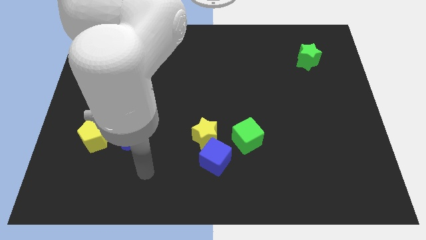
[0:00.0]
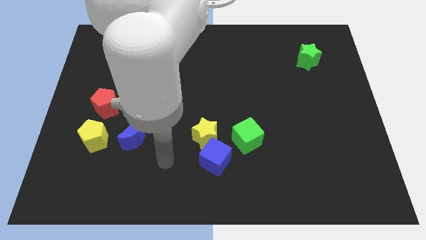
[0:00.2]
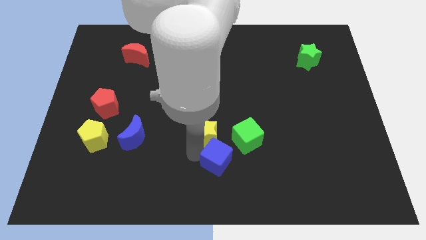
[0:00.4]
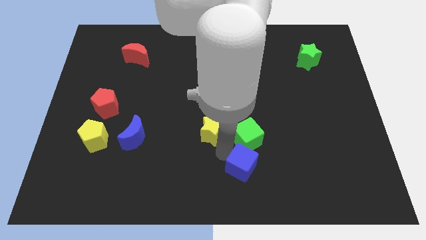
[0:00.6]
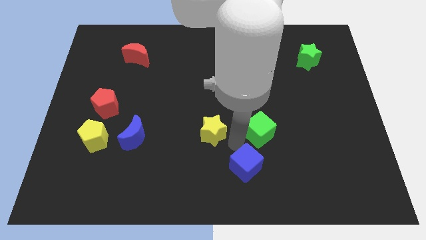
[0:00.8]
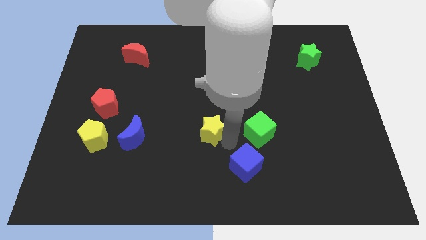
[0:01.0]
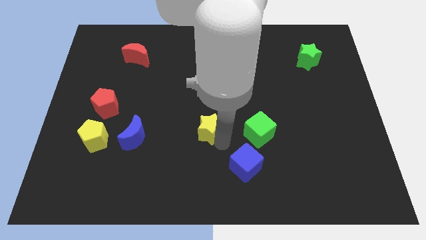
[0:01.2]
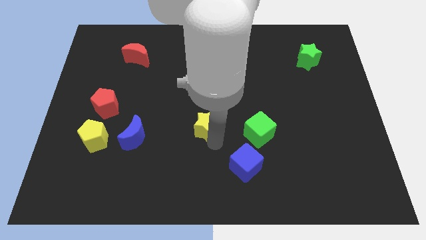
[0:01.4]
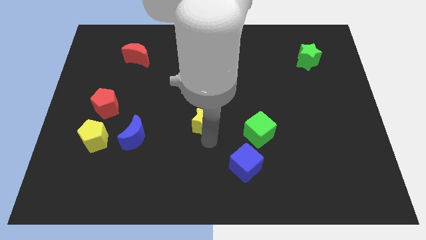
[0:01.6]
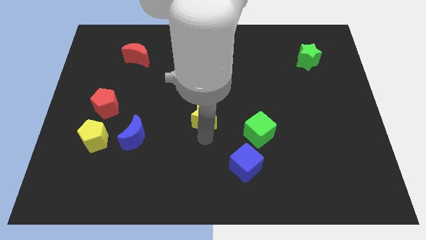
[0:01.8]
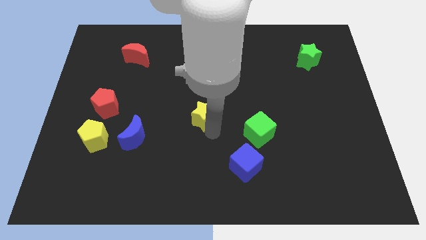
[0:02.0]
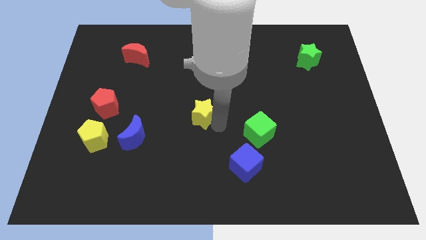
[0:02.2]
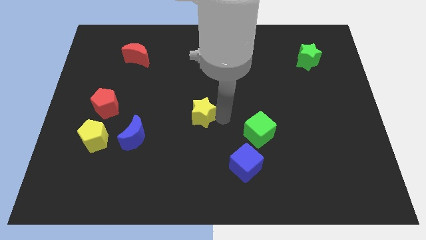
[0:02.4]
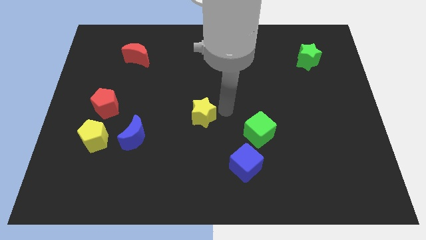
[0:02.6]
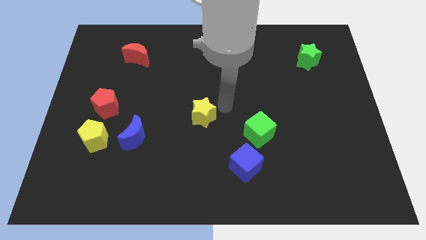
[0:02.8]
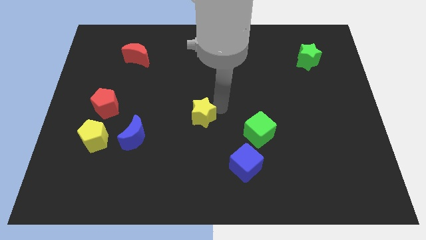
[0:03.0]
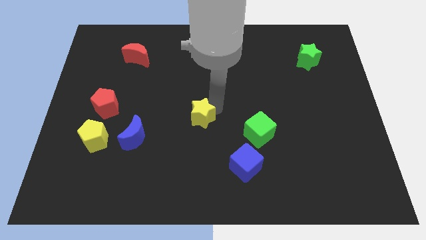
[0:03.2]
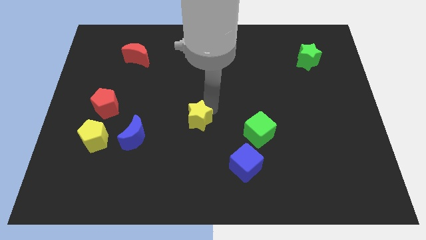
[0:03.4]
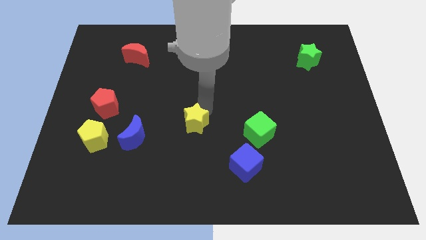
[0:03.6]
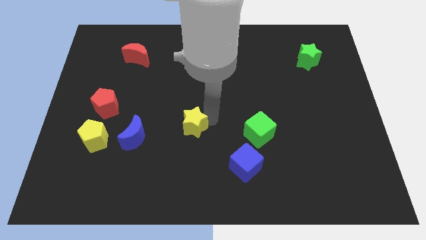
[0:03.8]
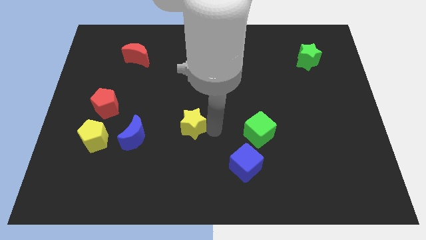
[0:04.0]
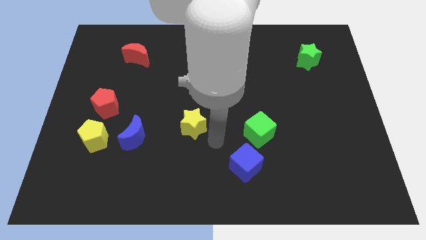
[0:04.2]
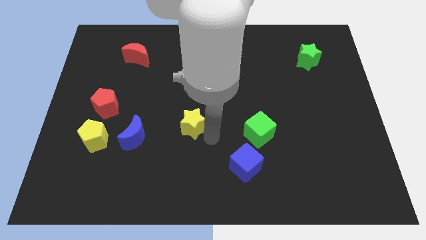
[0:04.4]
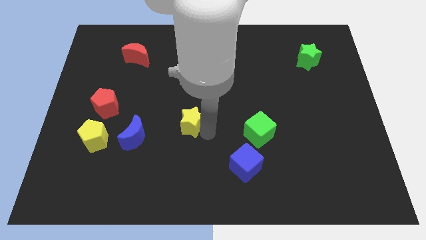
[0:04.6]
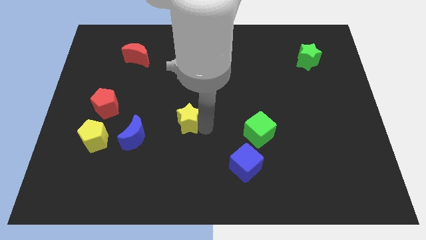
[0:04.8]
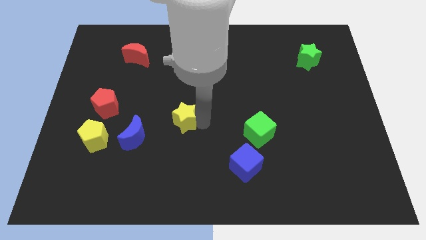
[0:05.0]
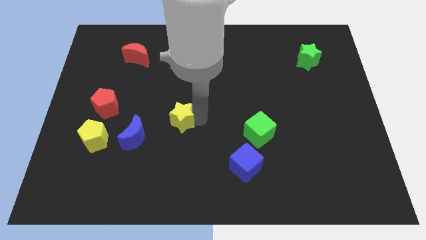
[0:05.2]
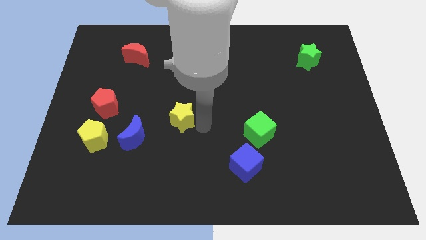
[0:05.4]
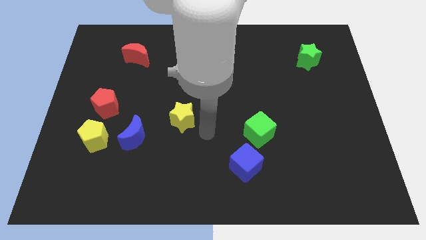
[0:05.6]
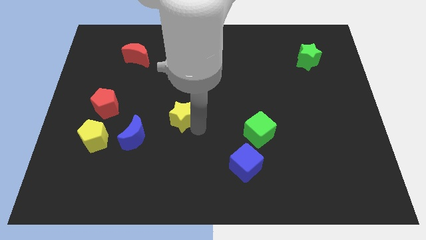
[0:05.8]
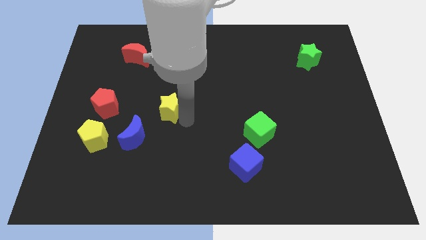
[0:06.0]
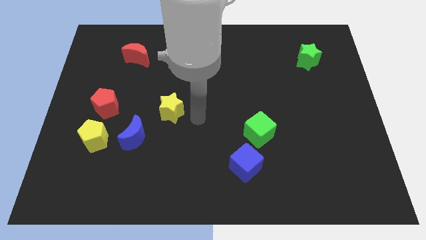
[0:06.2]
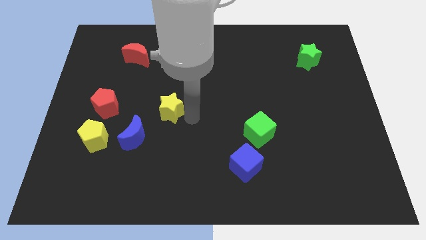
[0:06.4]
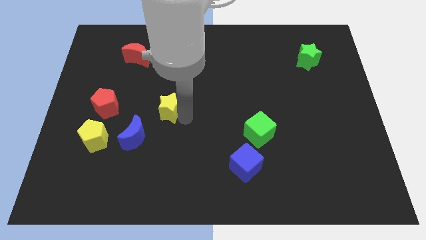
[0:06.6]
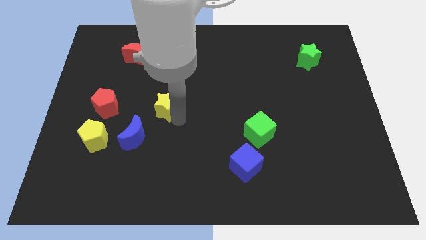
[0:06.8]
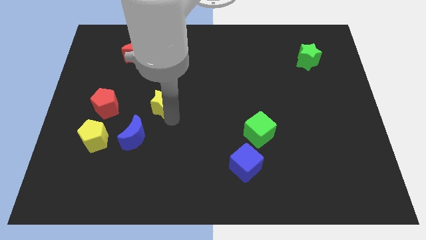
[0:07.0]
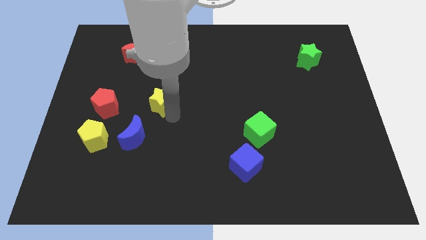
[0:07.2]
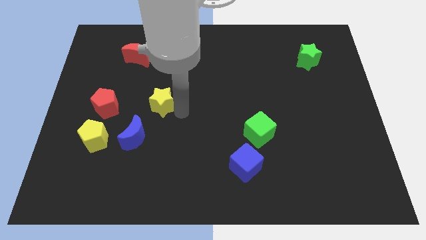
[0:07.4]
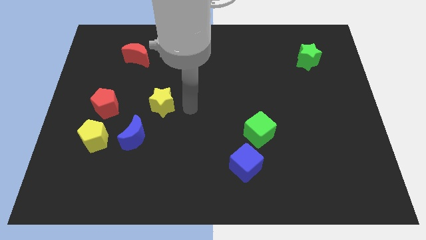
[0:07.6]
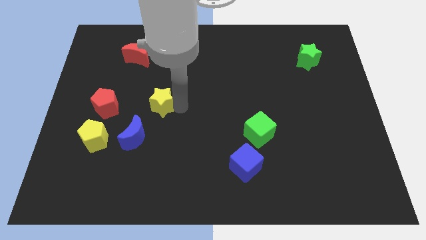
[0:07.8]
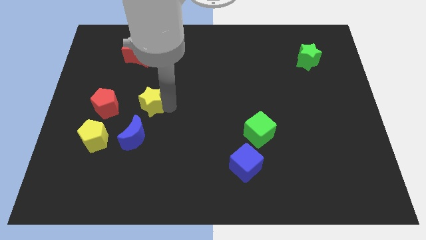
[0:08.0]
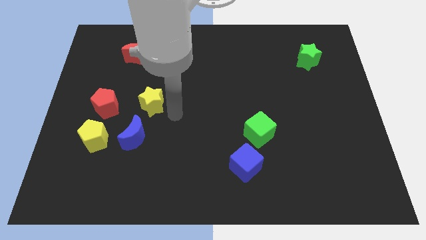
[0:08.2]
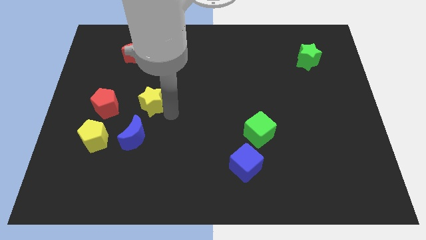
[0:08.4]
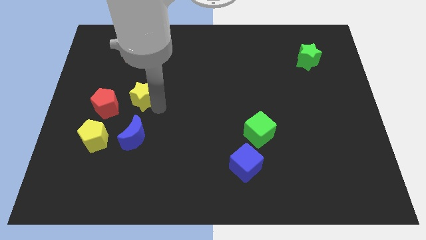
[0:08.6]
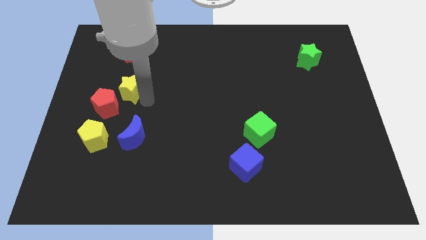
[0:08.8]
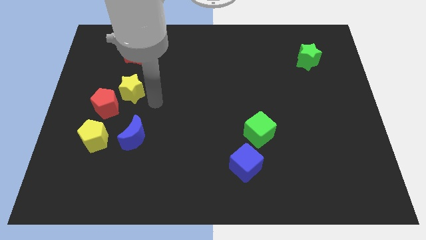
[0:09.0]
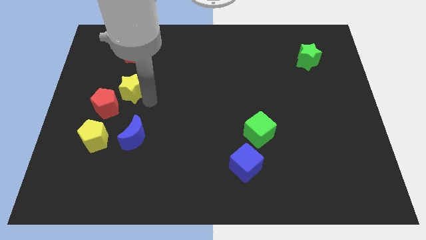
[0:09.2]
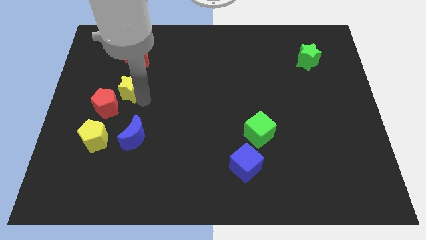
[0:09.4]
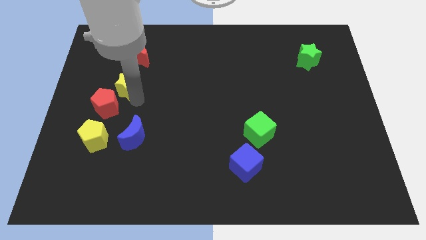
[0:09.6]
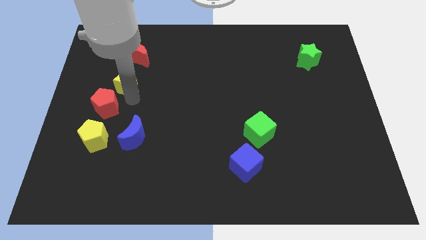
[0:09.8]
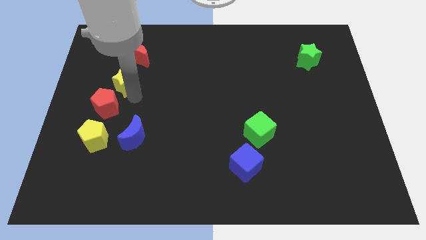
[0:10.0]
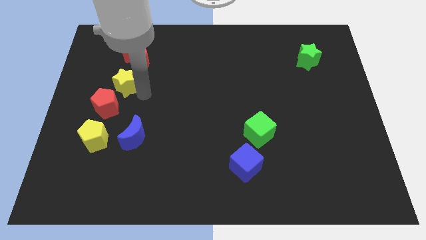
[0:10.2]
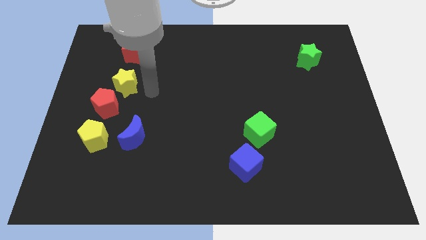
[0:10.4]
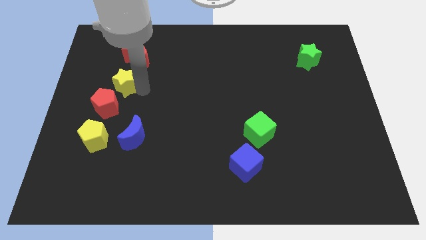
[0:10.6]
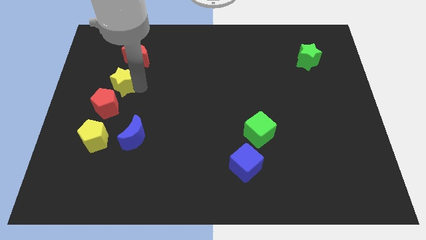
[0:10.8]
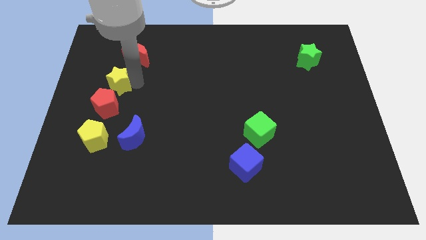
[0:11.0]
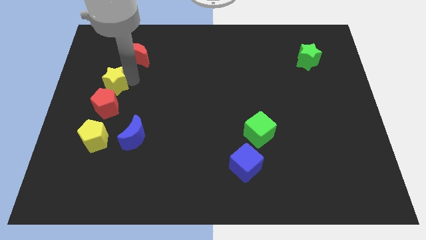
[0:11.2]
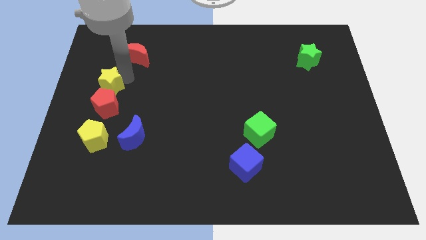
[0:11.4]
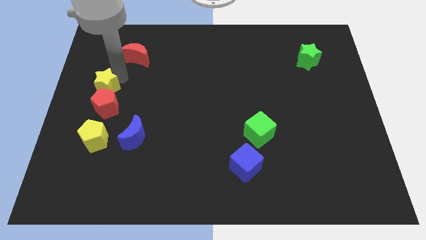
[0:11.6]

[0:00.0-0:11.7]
slide the yellow star to the left side of the board

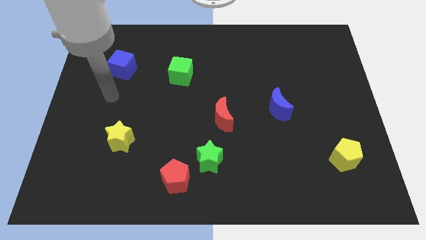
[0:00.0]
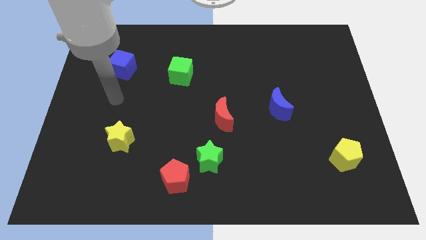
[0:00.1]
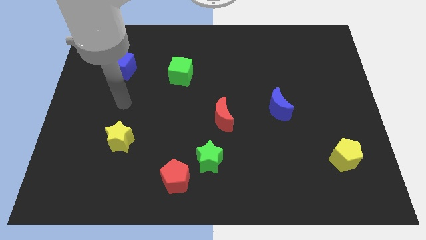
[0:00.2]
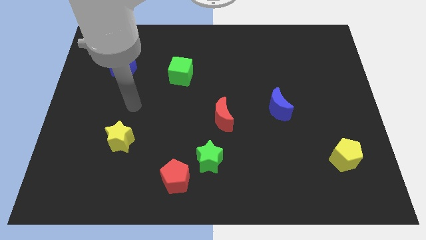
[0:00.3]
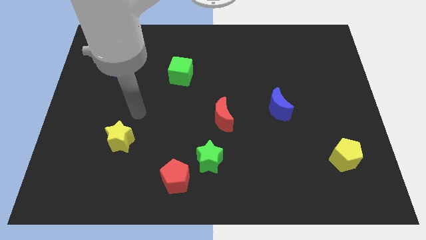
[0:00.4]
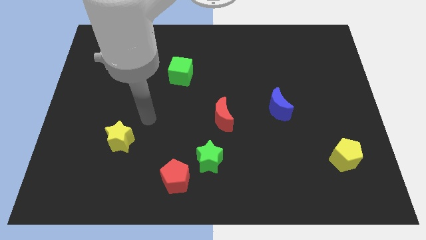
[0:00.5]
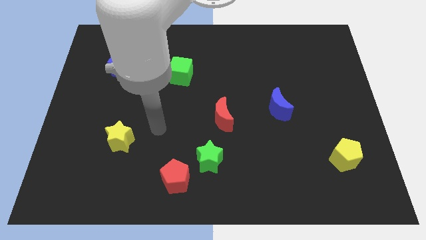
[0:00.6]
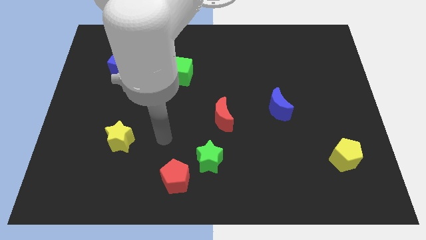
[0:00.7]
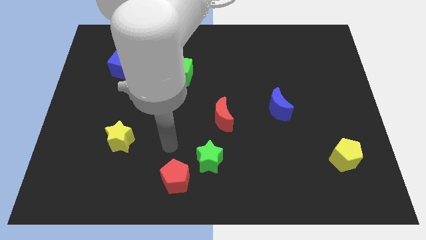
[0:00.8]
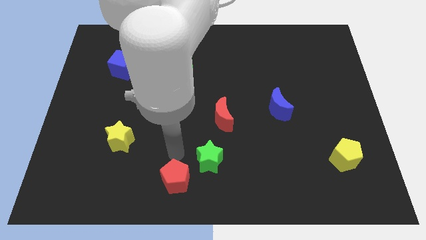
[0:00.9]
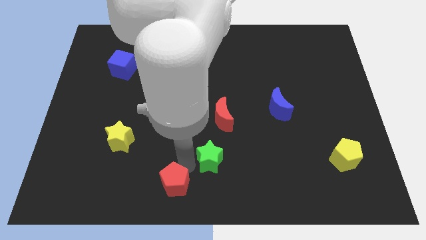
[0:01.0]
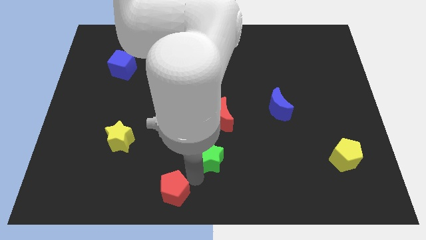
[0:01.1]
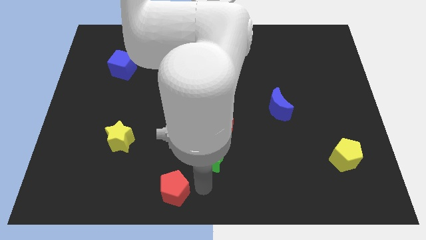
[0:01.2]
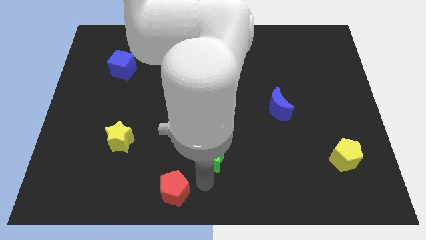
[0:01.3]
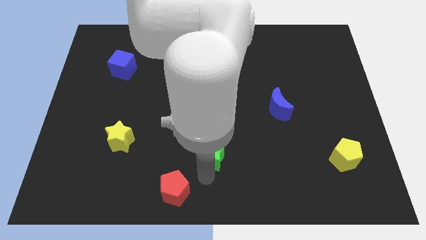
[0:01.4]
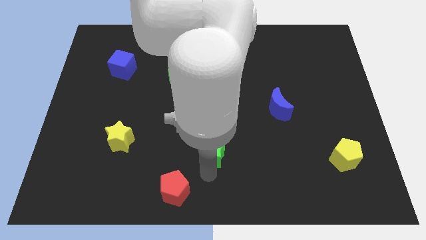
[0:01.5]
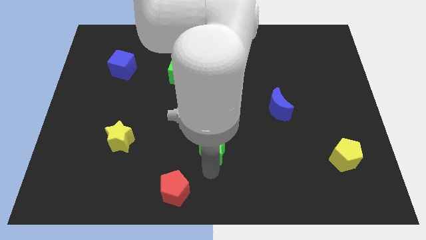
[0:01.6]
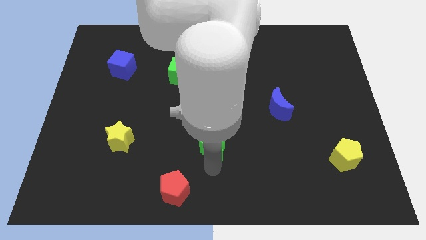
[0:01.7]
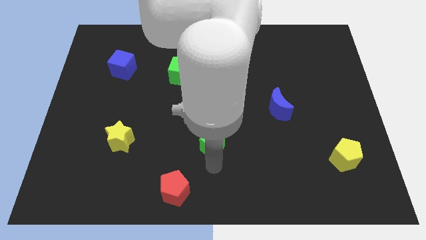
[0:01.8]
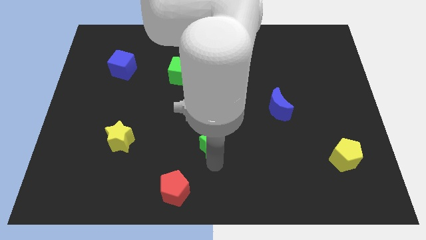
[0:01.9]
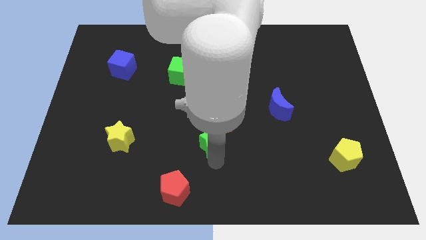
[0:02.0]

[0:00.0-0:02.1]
move the green star to the center of the board
